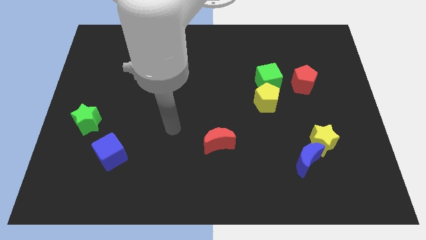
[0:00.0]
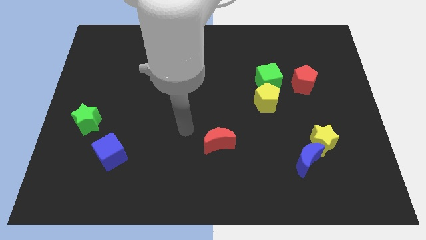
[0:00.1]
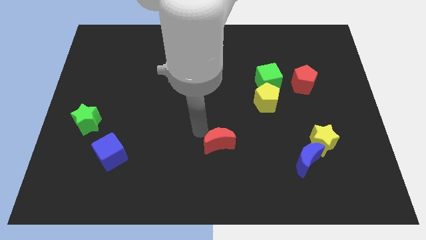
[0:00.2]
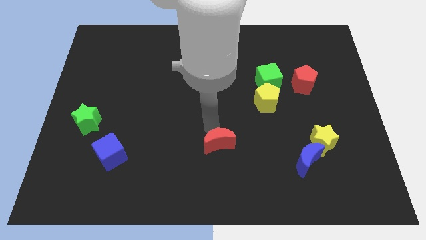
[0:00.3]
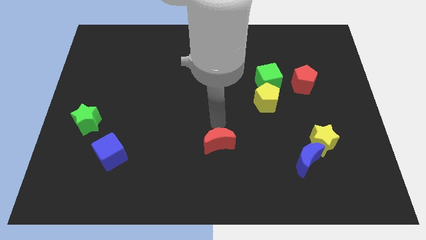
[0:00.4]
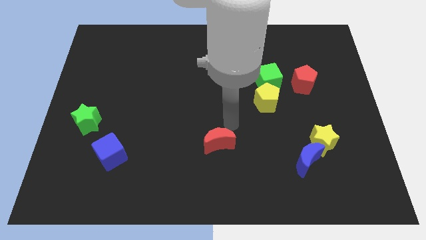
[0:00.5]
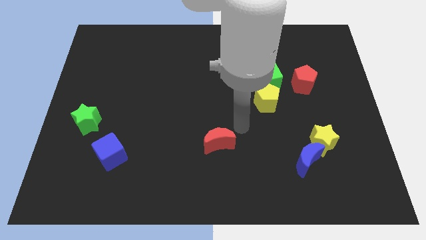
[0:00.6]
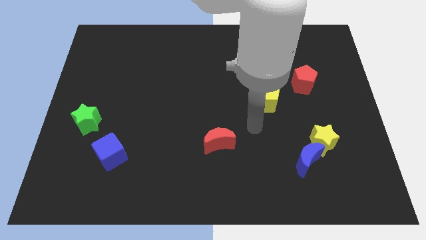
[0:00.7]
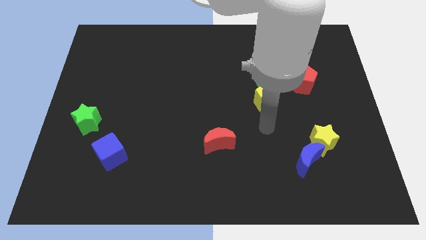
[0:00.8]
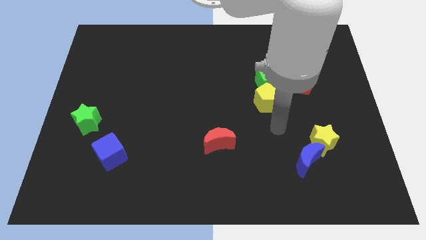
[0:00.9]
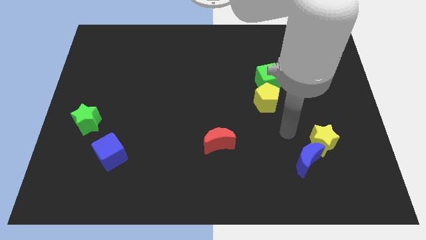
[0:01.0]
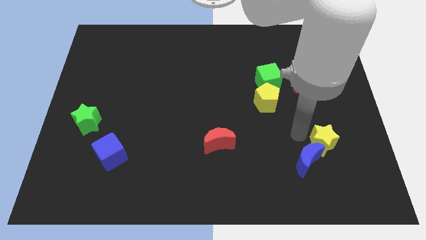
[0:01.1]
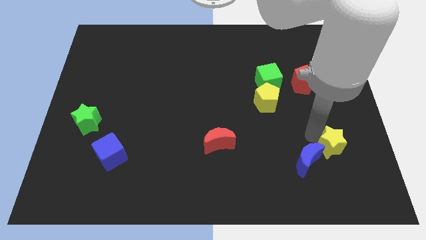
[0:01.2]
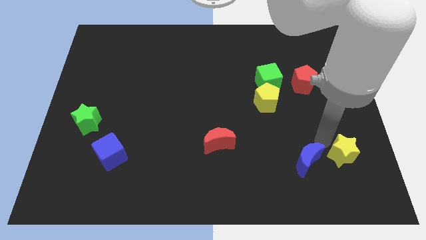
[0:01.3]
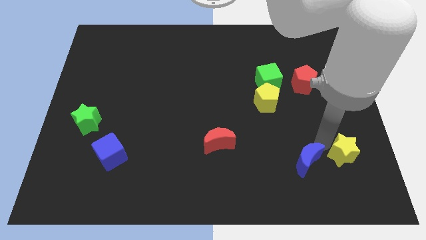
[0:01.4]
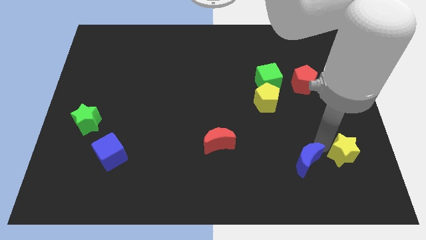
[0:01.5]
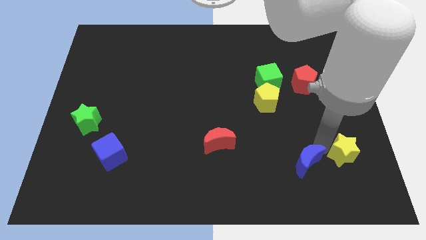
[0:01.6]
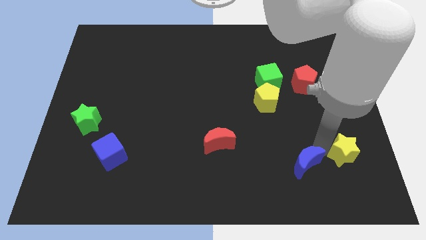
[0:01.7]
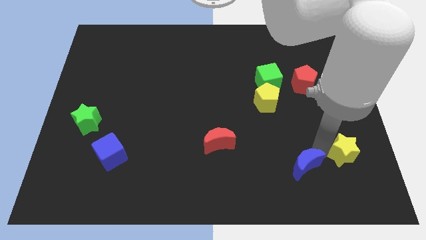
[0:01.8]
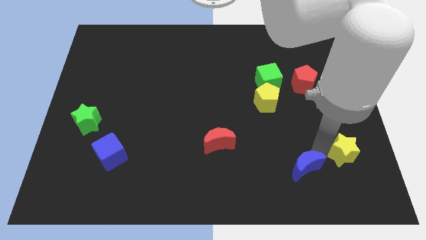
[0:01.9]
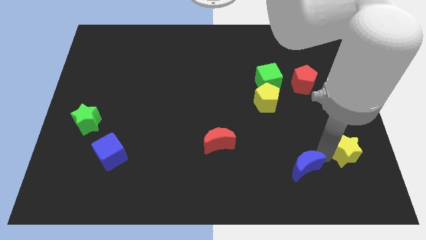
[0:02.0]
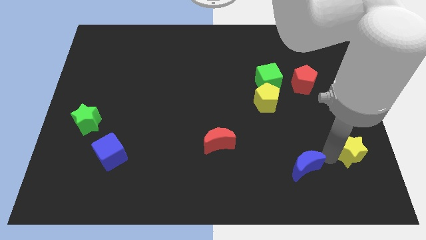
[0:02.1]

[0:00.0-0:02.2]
move the blue moon away from the yellow star

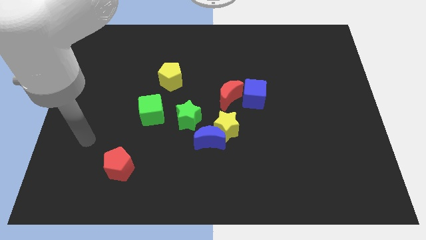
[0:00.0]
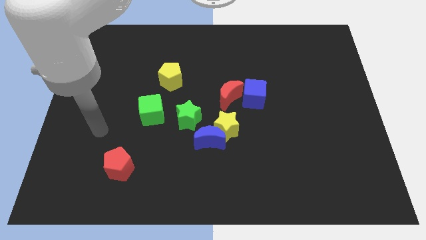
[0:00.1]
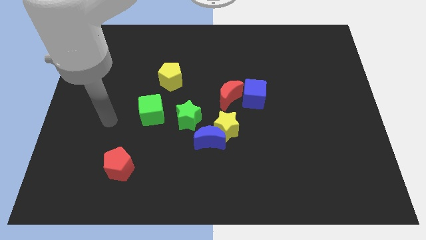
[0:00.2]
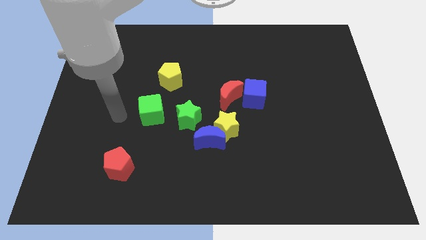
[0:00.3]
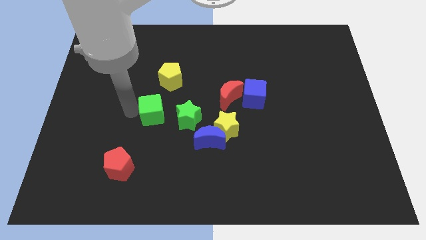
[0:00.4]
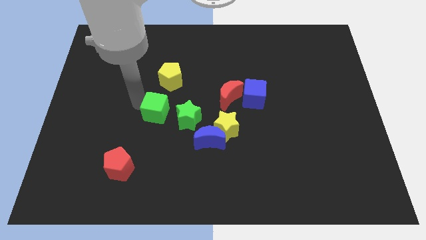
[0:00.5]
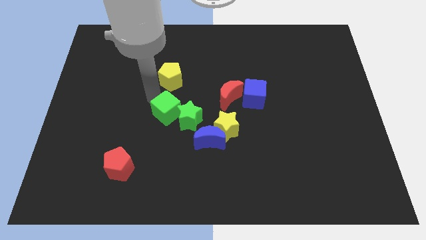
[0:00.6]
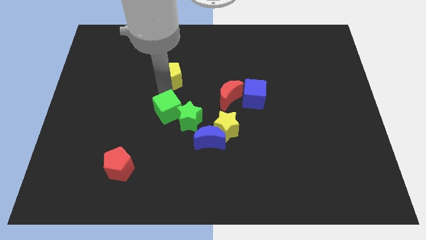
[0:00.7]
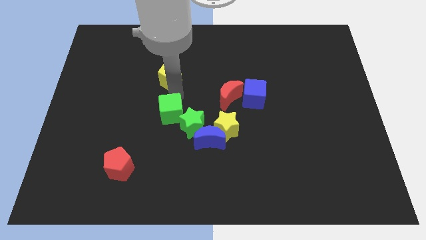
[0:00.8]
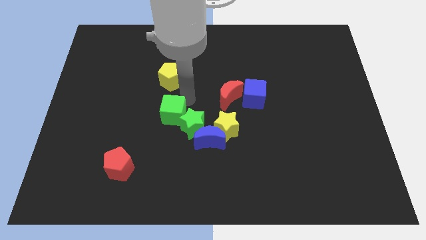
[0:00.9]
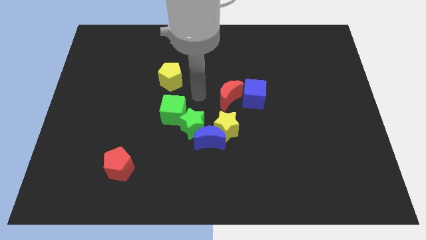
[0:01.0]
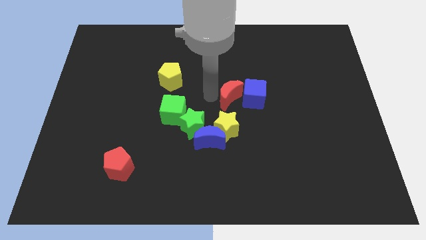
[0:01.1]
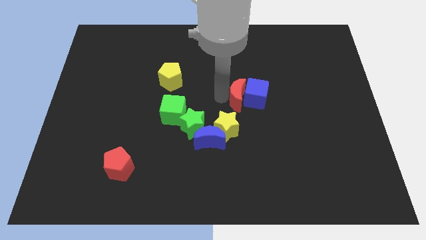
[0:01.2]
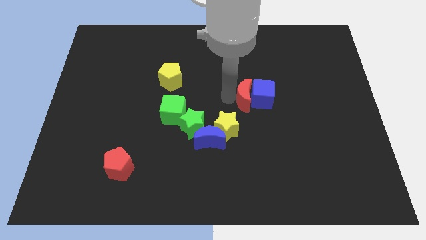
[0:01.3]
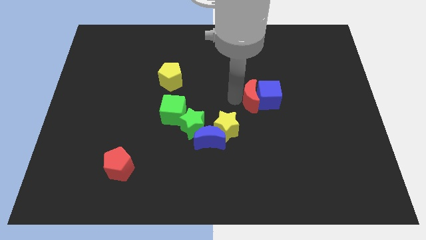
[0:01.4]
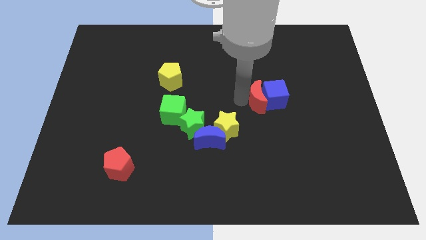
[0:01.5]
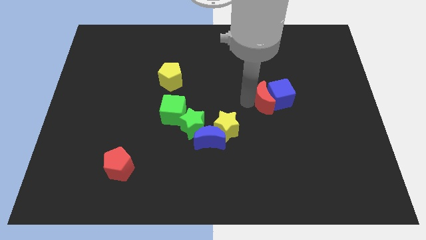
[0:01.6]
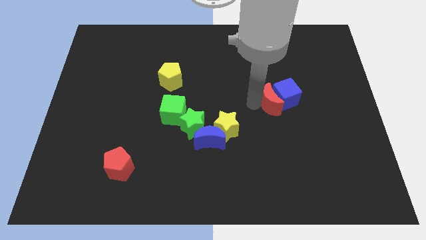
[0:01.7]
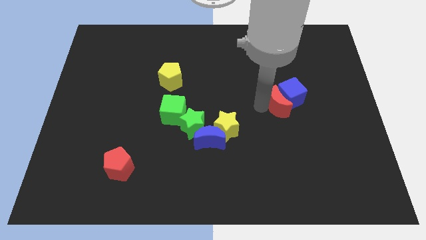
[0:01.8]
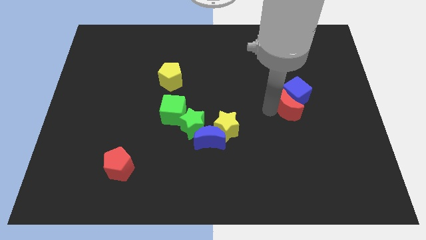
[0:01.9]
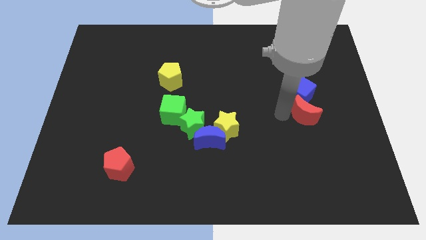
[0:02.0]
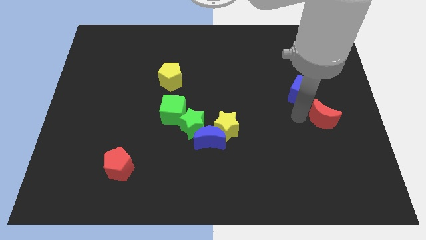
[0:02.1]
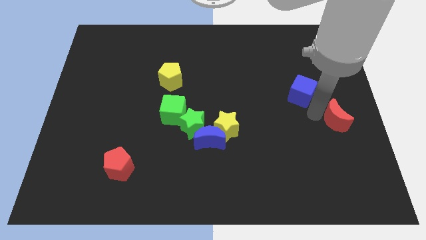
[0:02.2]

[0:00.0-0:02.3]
separate the blue cube from the red moon

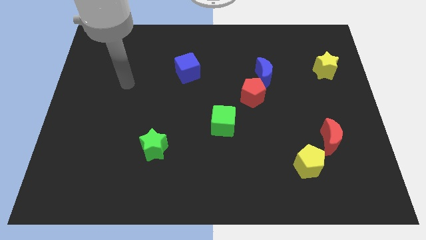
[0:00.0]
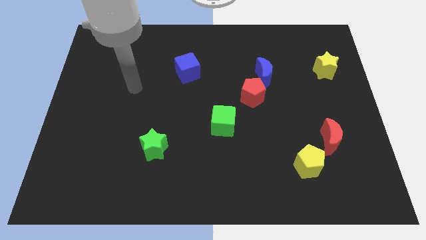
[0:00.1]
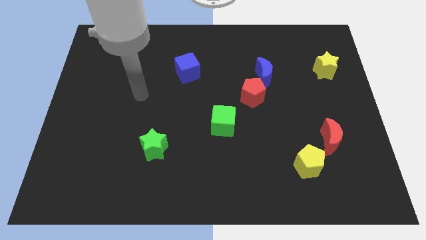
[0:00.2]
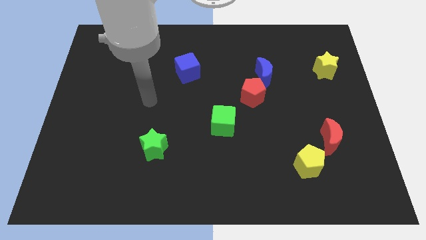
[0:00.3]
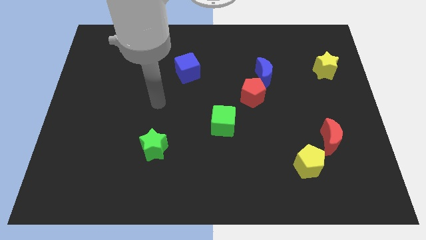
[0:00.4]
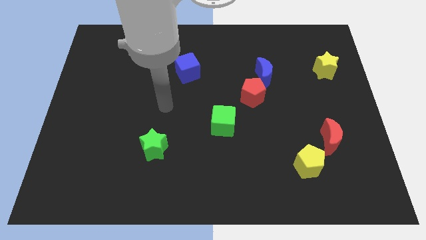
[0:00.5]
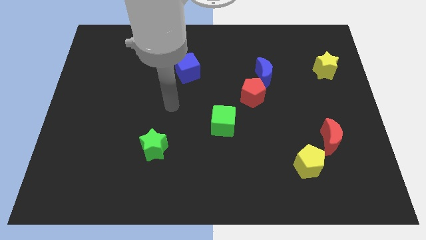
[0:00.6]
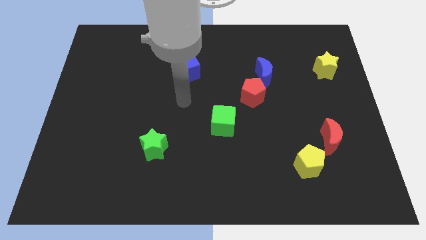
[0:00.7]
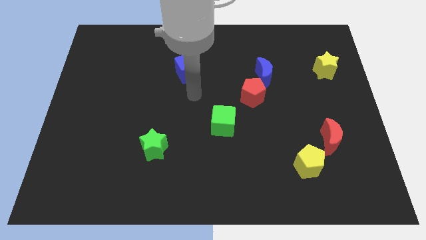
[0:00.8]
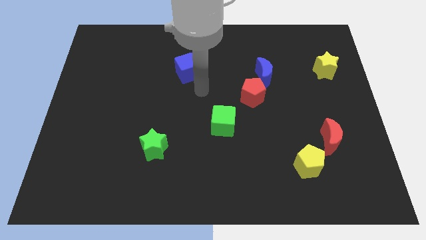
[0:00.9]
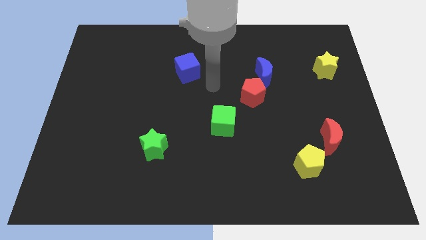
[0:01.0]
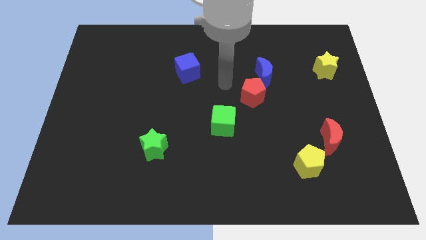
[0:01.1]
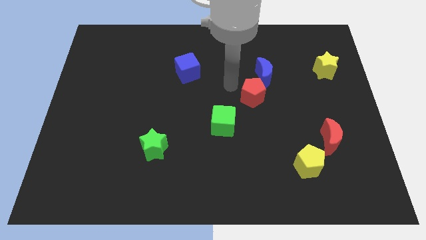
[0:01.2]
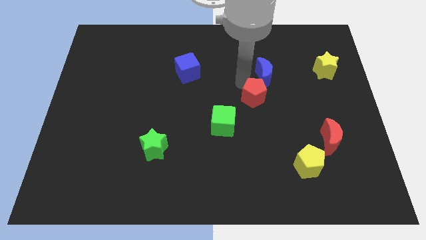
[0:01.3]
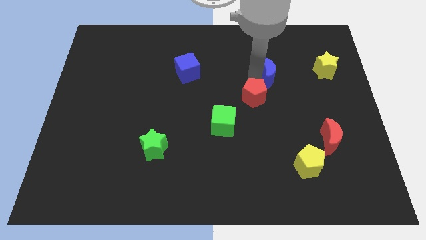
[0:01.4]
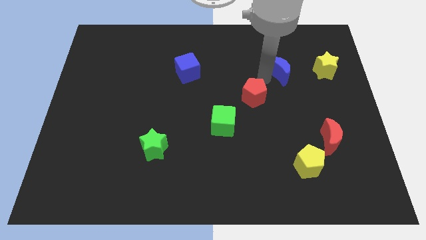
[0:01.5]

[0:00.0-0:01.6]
pull the red pentagon apart from the blue moon

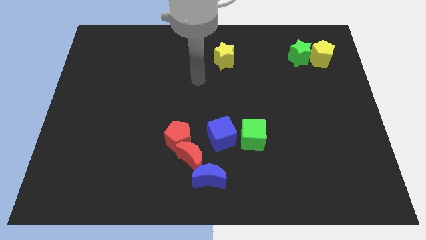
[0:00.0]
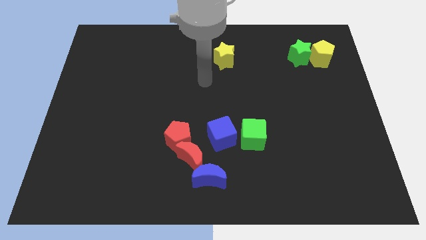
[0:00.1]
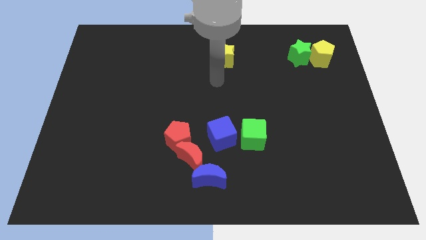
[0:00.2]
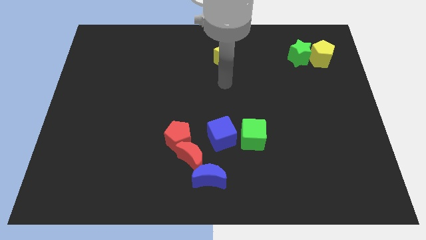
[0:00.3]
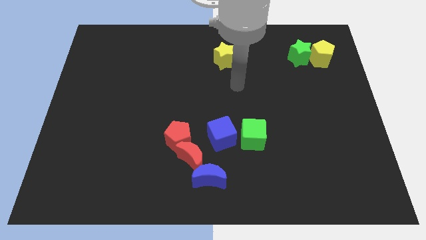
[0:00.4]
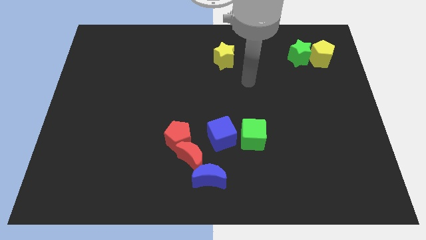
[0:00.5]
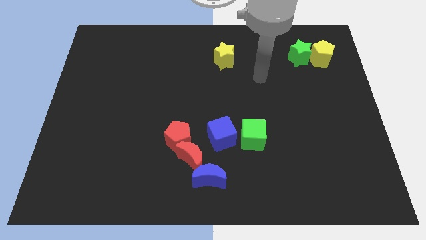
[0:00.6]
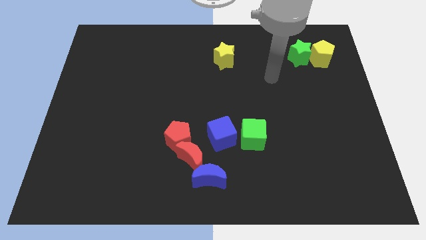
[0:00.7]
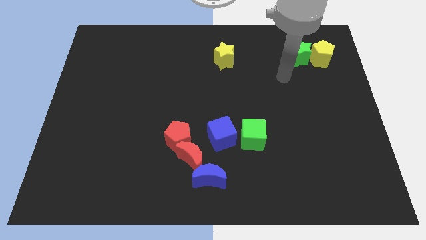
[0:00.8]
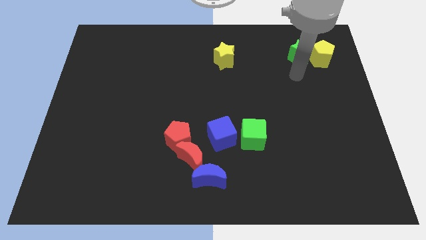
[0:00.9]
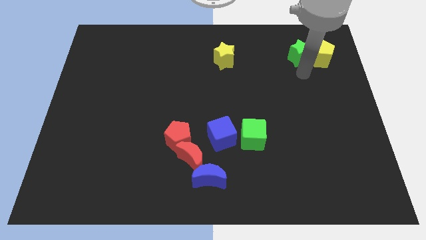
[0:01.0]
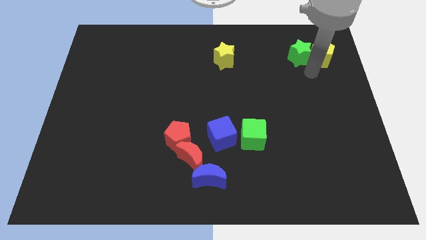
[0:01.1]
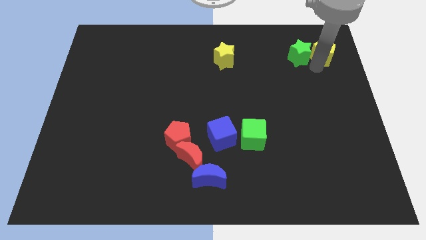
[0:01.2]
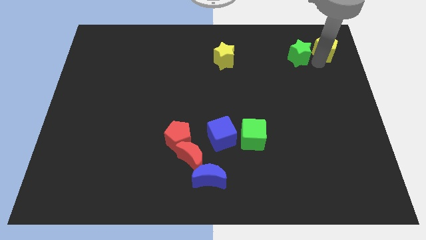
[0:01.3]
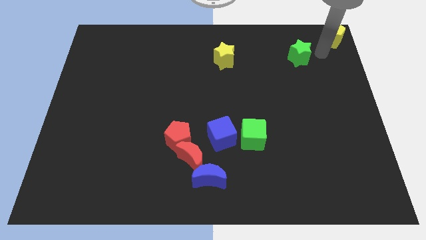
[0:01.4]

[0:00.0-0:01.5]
separate the green star from the yellow pentagon

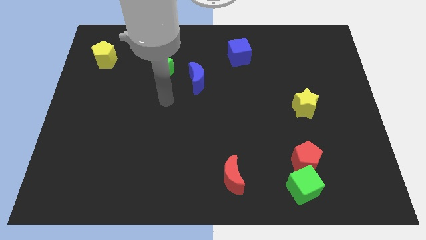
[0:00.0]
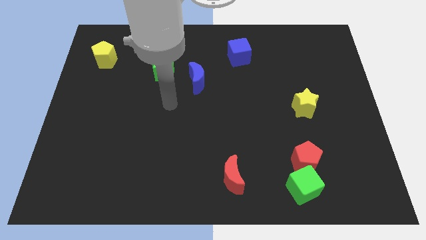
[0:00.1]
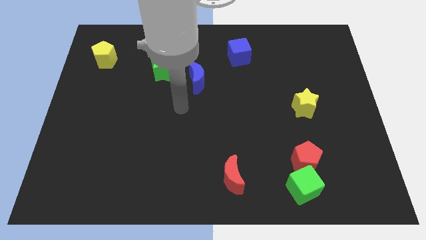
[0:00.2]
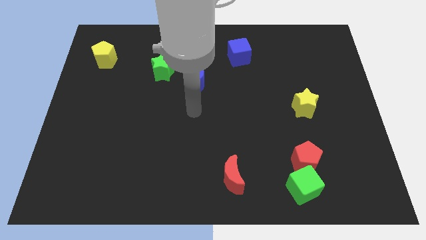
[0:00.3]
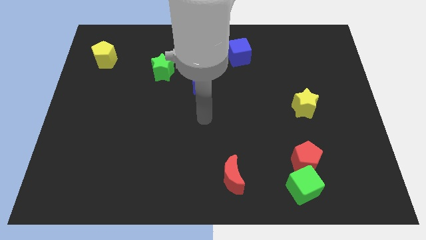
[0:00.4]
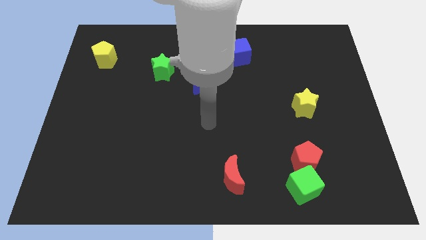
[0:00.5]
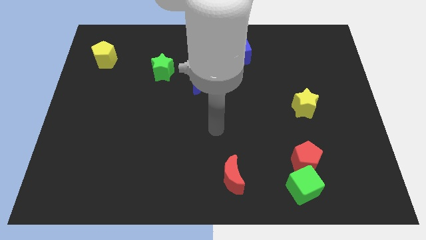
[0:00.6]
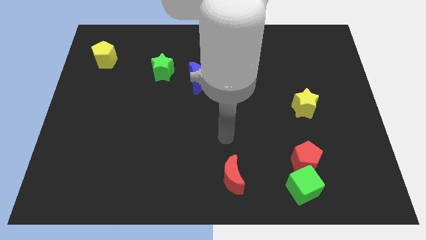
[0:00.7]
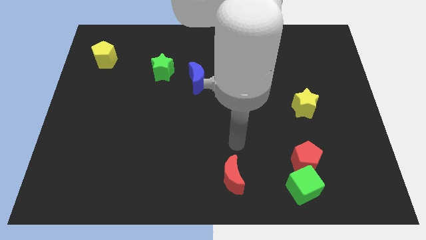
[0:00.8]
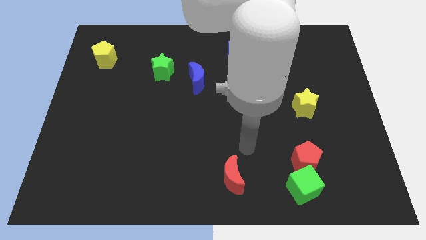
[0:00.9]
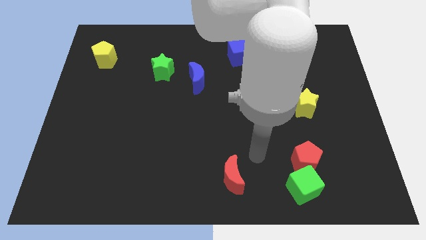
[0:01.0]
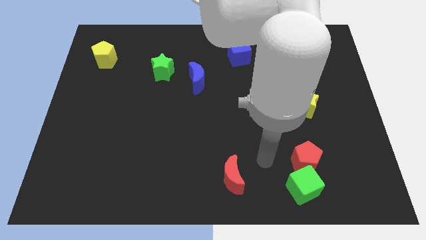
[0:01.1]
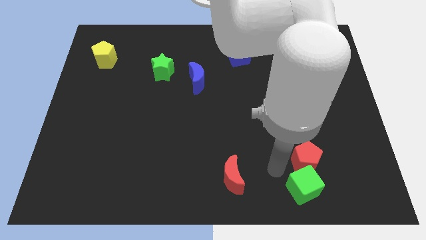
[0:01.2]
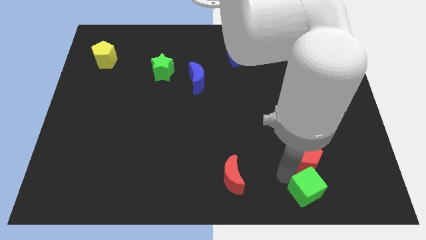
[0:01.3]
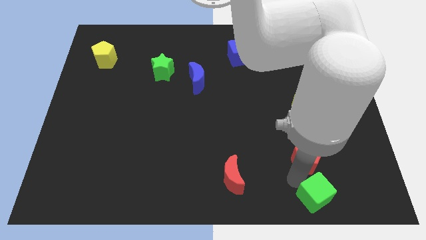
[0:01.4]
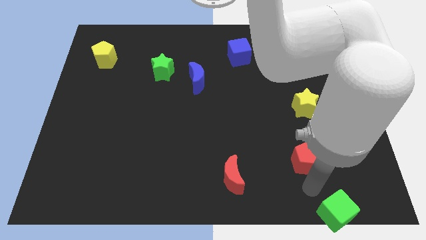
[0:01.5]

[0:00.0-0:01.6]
separate the red pentagon from the green cube

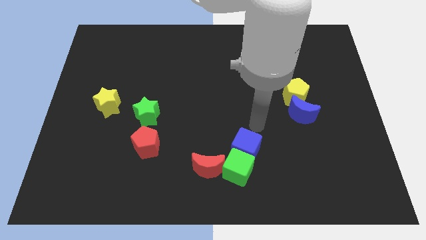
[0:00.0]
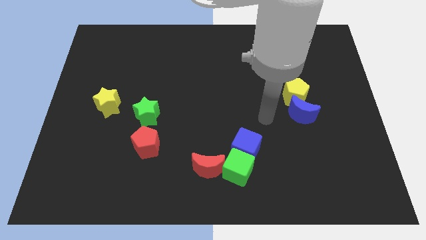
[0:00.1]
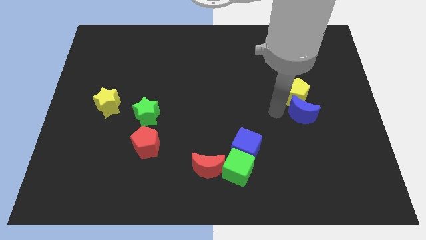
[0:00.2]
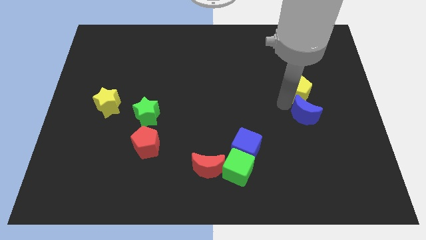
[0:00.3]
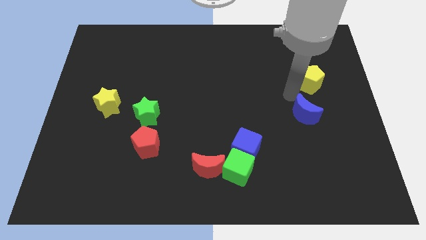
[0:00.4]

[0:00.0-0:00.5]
move the blue moon away from the yellow pentagon
